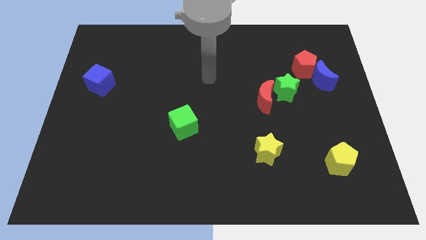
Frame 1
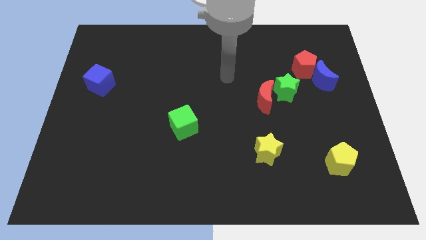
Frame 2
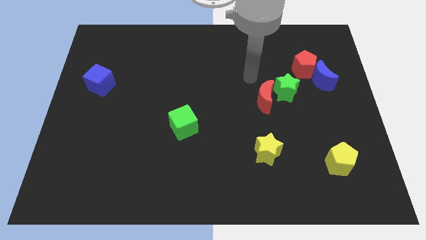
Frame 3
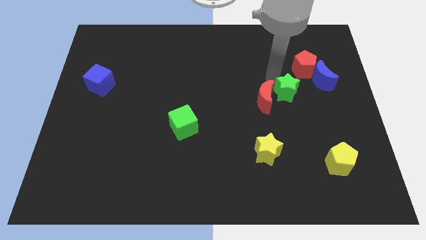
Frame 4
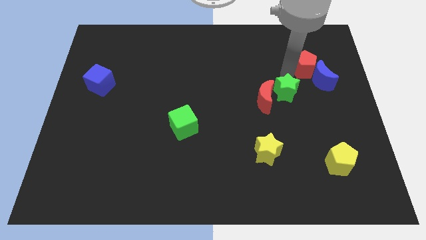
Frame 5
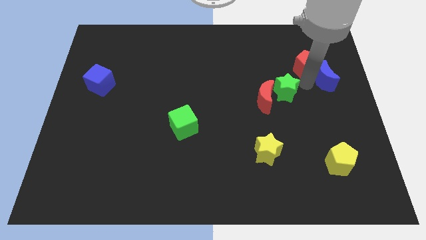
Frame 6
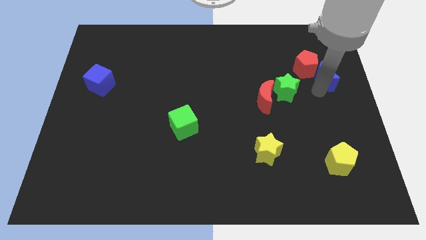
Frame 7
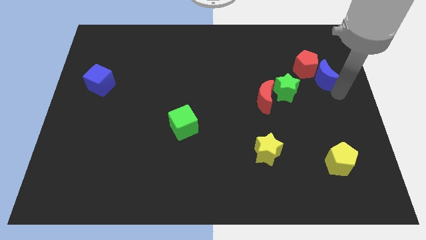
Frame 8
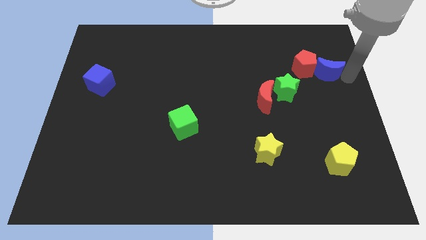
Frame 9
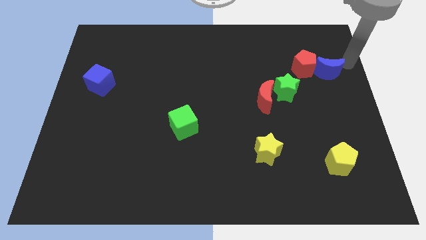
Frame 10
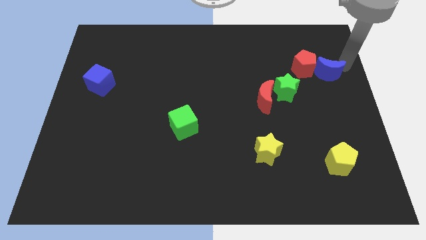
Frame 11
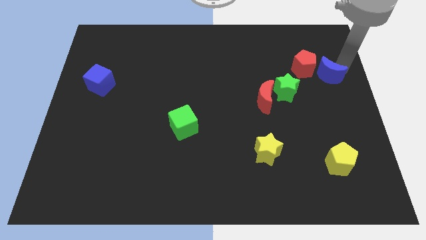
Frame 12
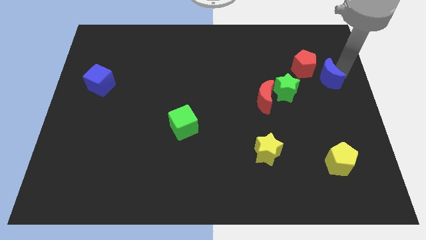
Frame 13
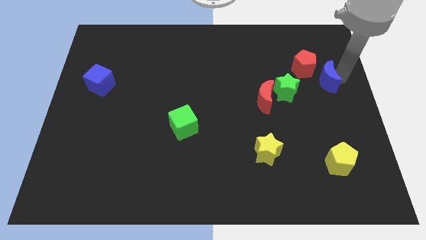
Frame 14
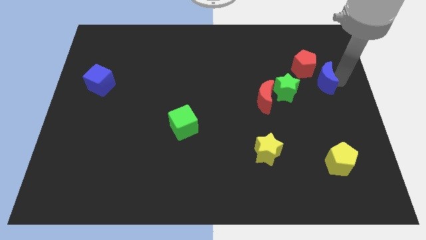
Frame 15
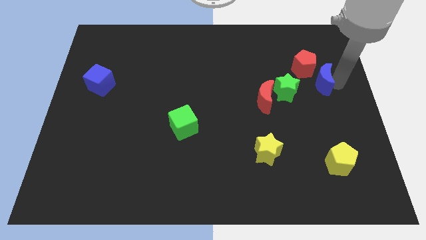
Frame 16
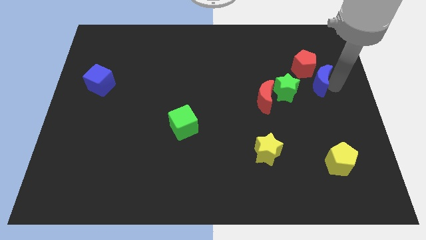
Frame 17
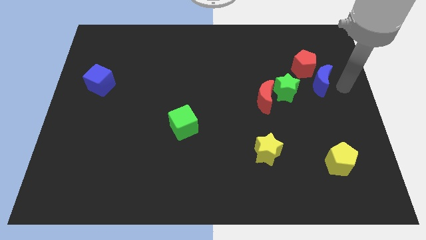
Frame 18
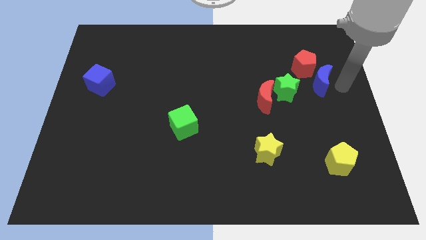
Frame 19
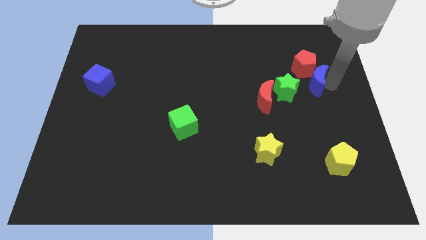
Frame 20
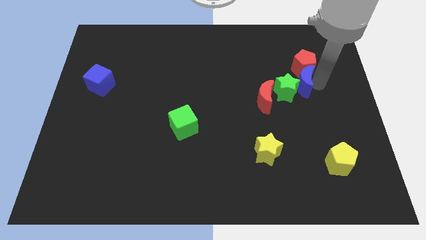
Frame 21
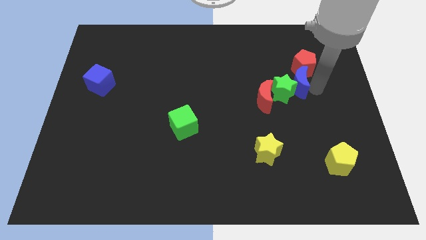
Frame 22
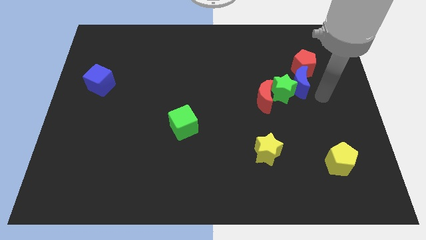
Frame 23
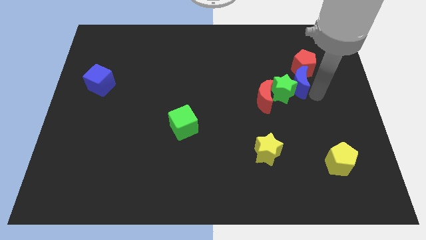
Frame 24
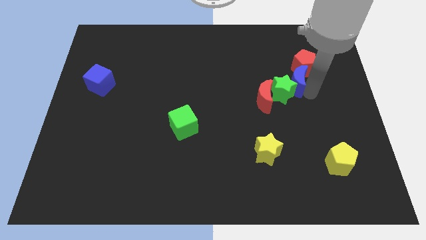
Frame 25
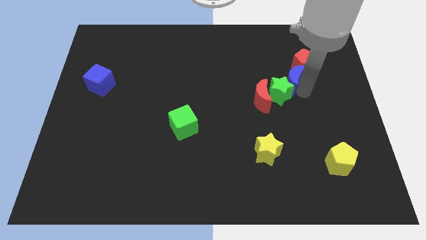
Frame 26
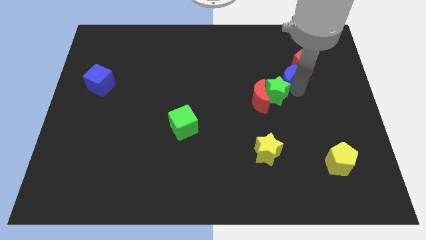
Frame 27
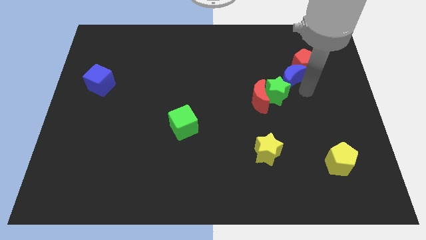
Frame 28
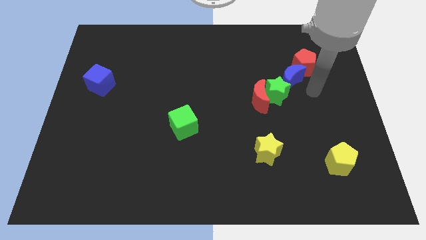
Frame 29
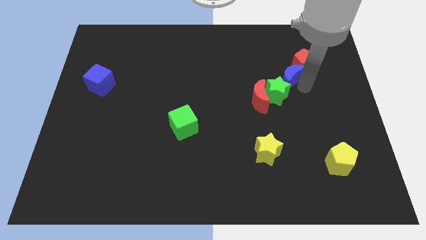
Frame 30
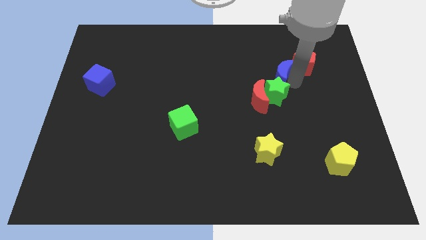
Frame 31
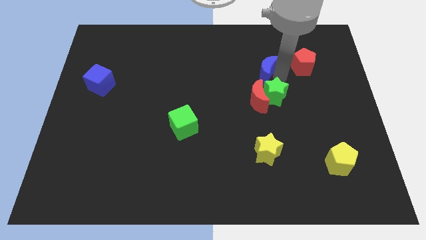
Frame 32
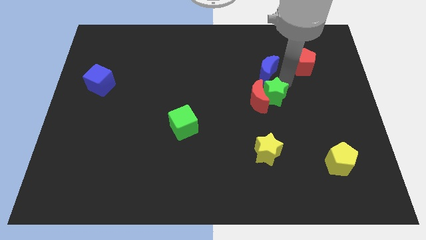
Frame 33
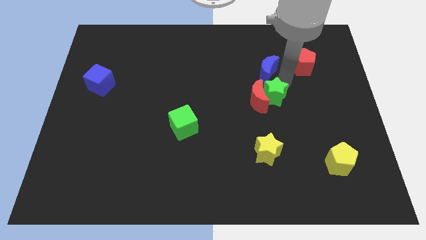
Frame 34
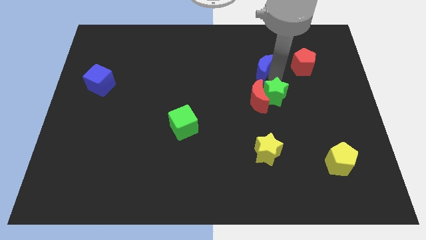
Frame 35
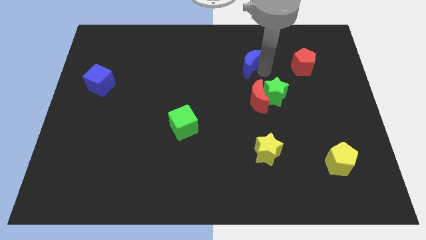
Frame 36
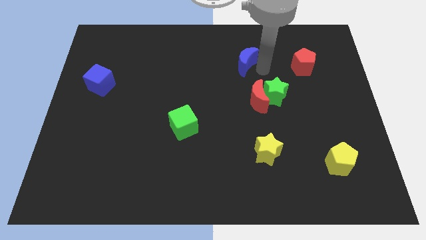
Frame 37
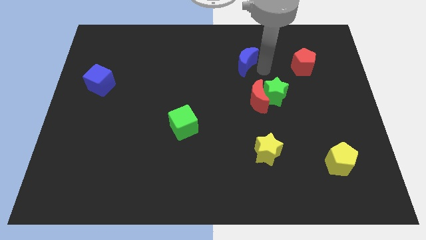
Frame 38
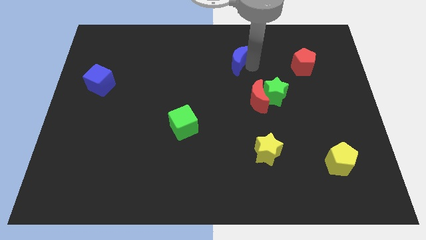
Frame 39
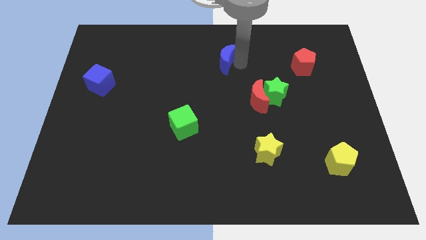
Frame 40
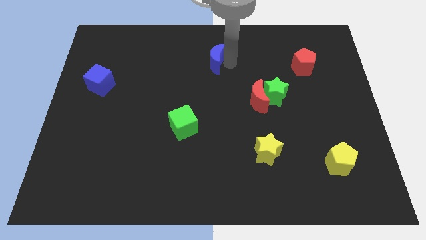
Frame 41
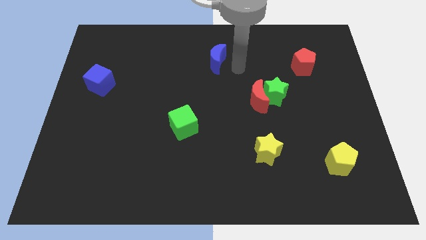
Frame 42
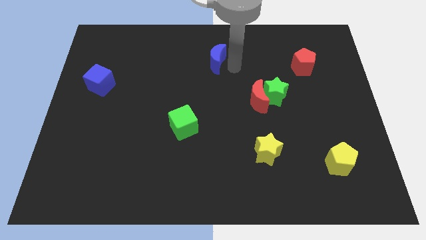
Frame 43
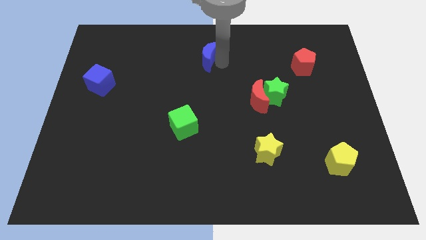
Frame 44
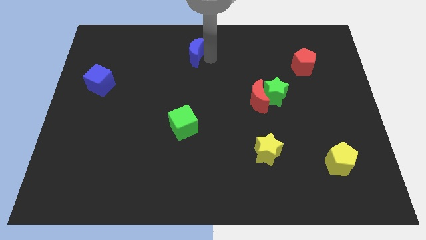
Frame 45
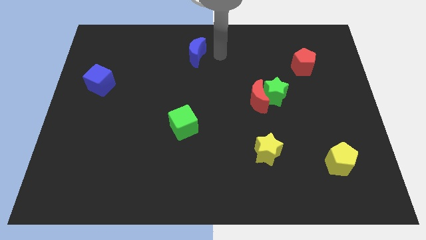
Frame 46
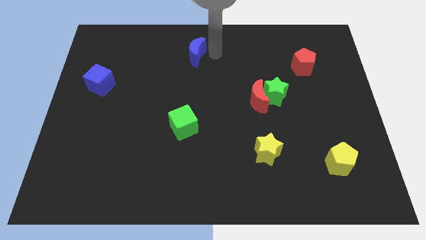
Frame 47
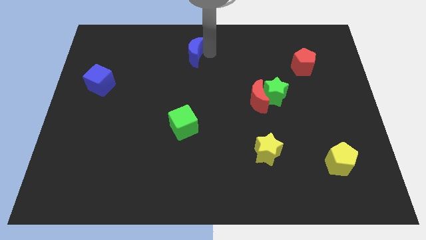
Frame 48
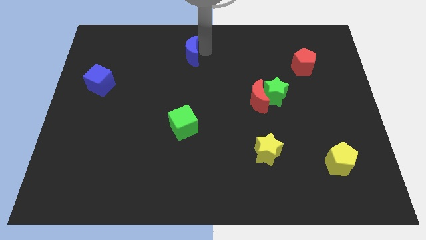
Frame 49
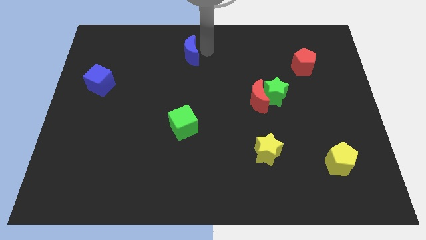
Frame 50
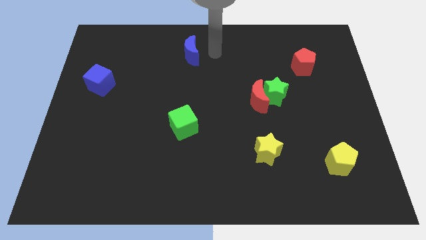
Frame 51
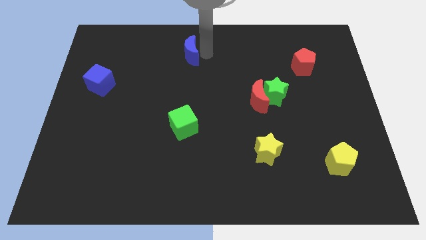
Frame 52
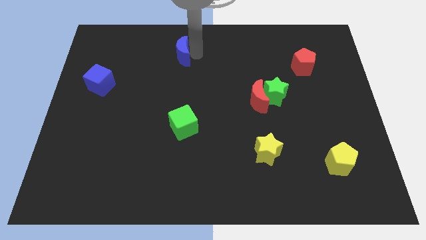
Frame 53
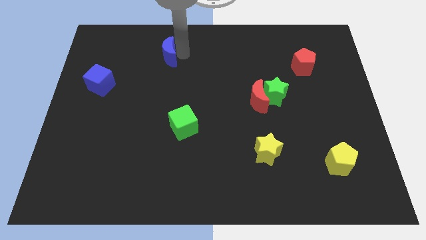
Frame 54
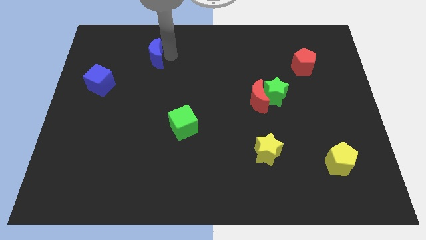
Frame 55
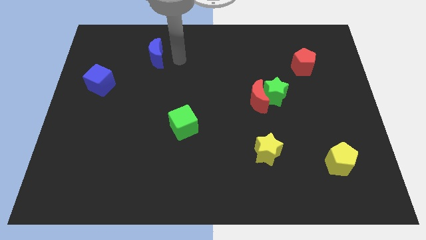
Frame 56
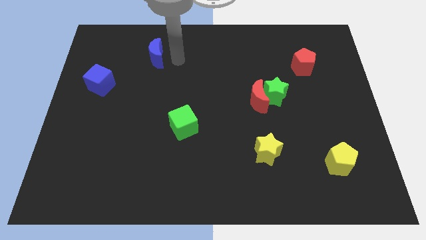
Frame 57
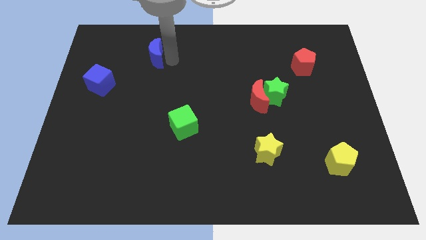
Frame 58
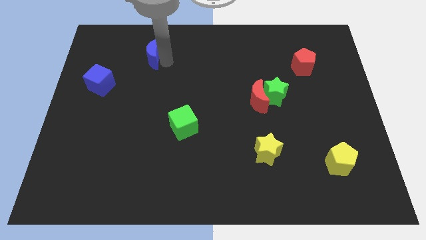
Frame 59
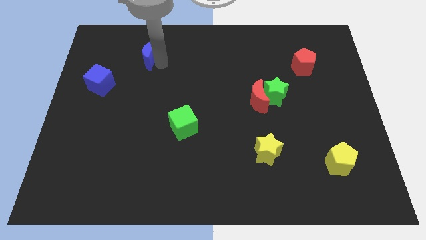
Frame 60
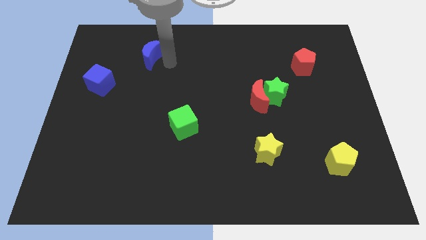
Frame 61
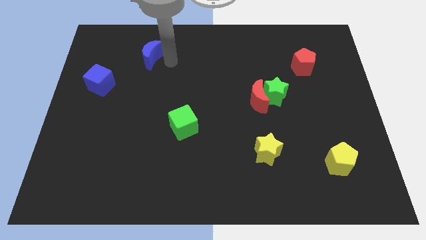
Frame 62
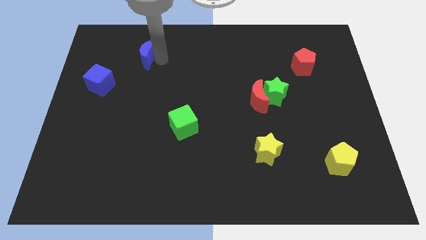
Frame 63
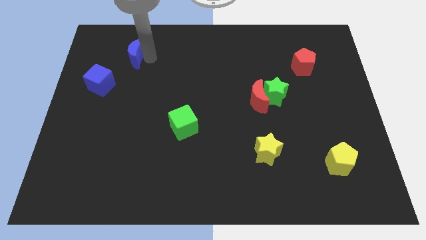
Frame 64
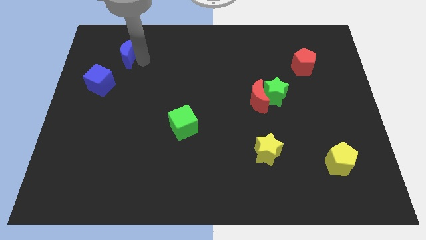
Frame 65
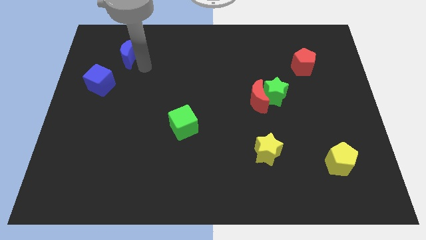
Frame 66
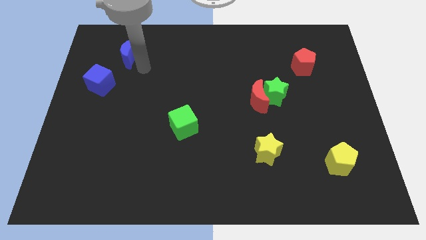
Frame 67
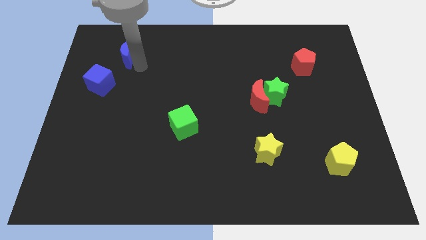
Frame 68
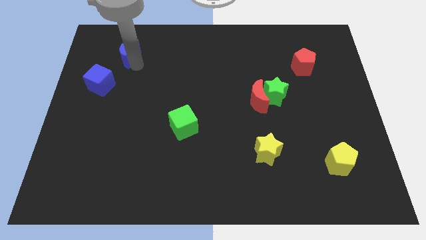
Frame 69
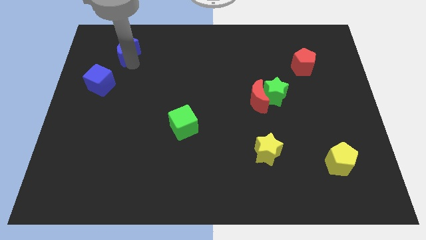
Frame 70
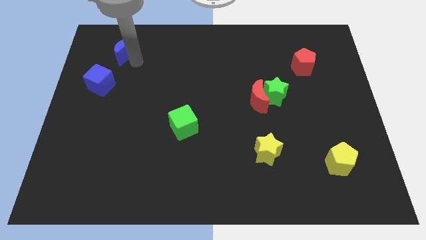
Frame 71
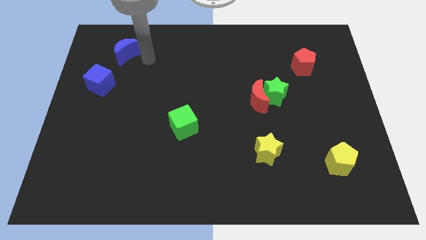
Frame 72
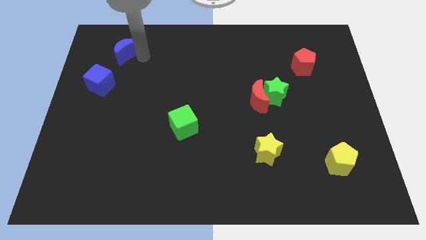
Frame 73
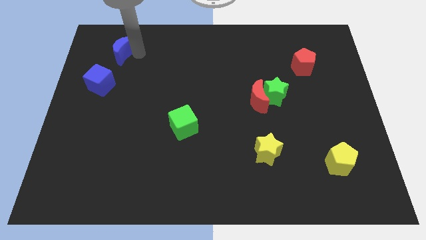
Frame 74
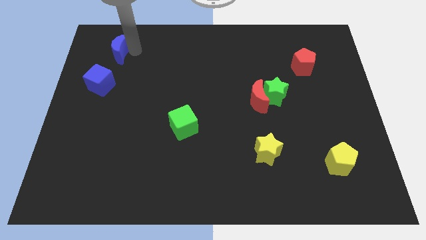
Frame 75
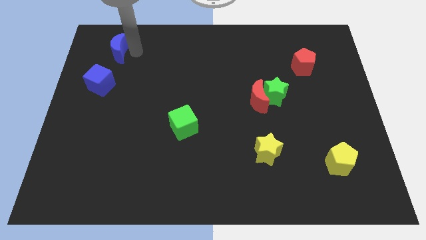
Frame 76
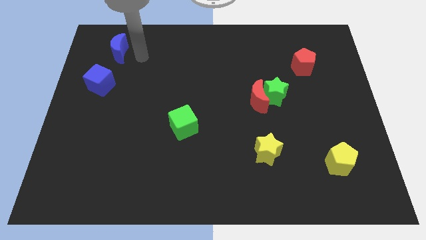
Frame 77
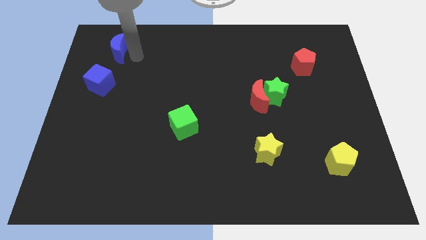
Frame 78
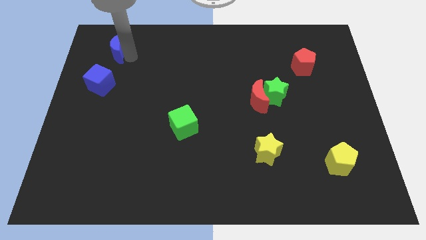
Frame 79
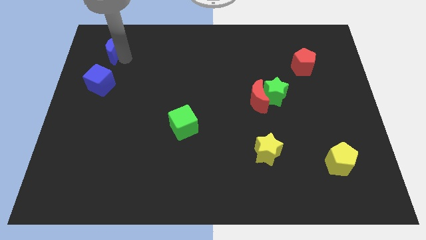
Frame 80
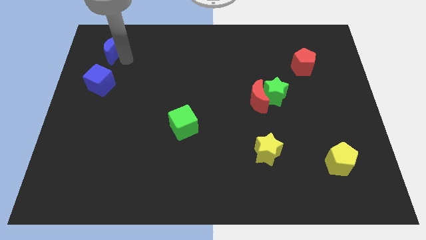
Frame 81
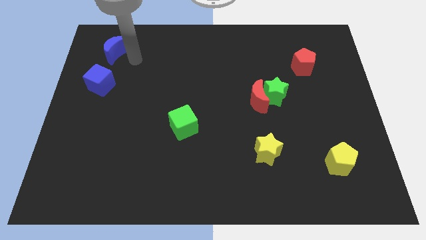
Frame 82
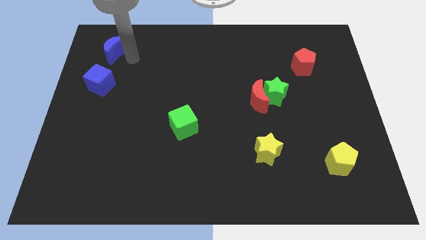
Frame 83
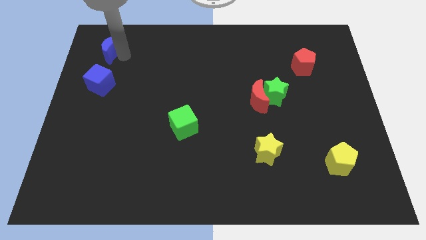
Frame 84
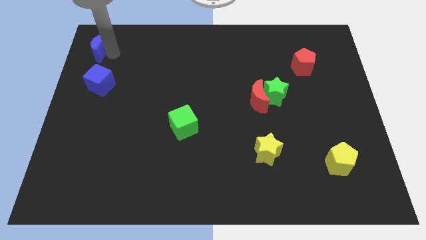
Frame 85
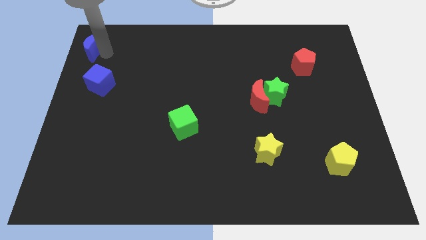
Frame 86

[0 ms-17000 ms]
slide the blue moon to the top left
